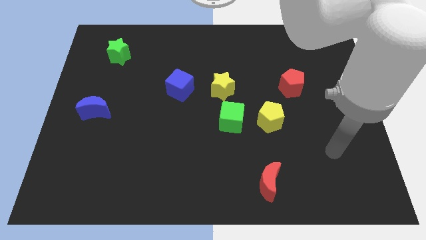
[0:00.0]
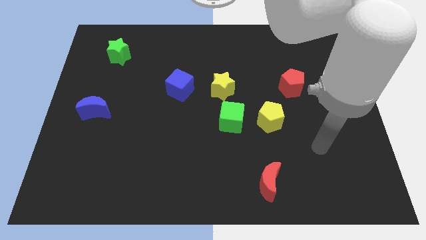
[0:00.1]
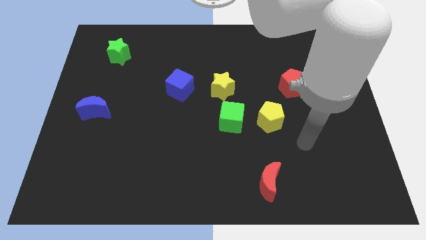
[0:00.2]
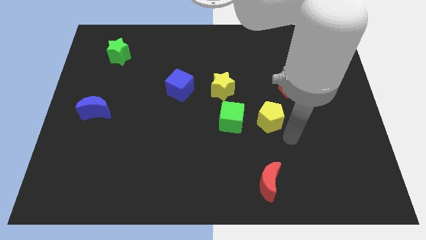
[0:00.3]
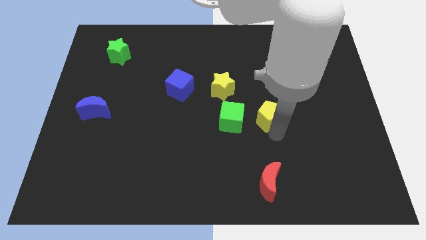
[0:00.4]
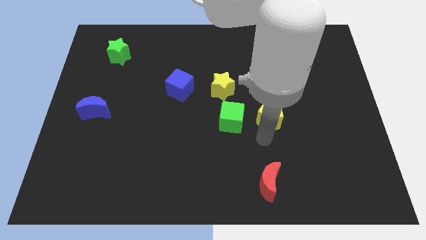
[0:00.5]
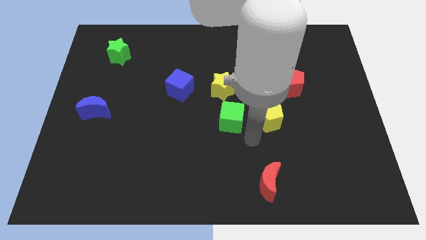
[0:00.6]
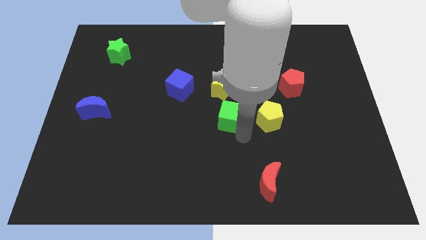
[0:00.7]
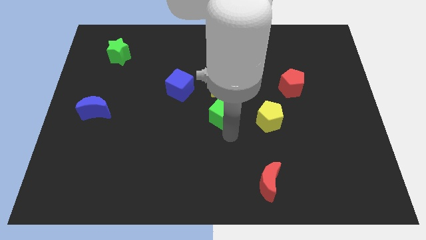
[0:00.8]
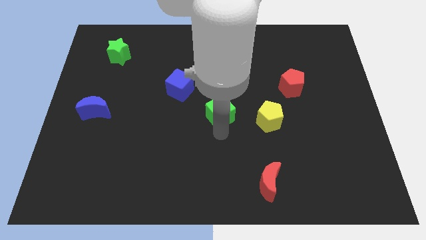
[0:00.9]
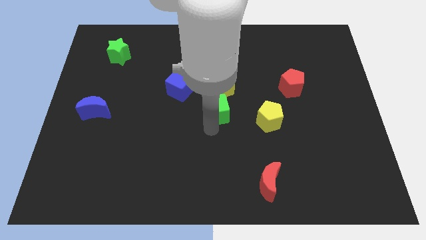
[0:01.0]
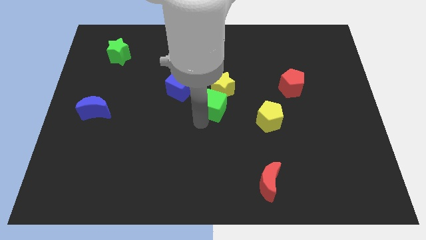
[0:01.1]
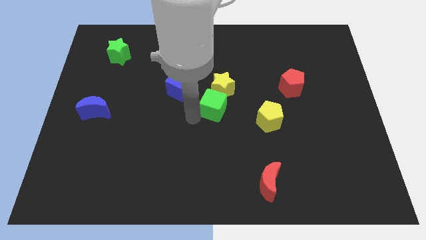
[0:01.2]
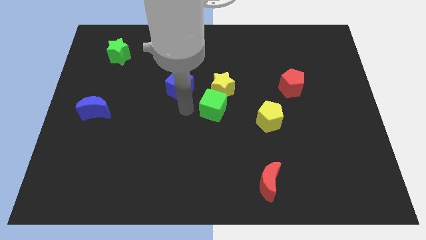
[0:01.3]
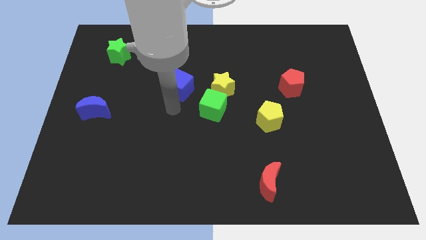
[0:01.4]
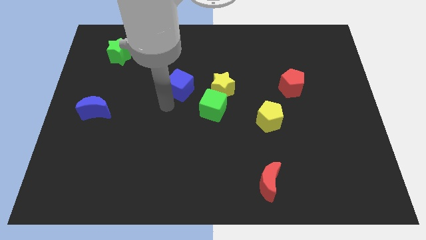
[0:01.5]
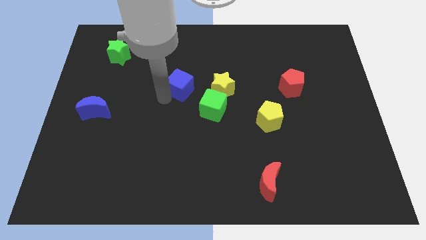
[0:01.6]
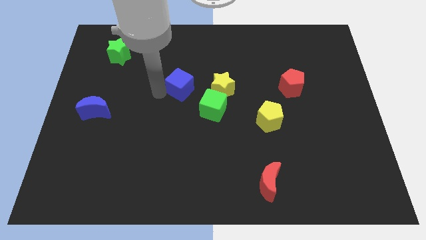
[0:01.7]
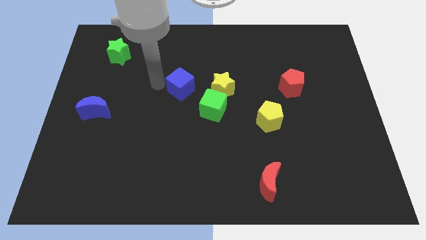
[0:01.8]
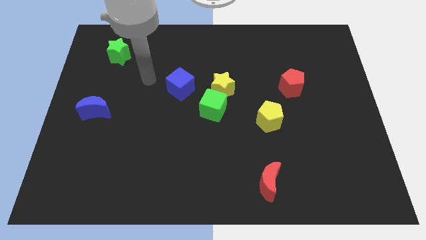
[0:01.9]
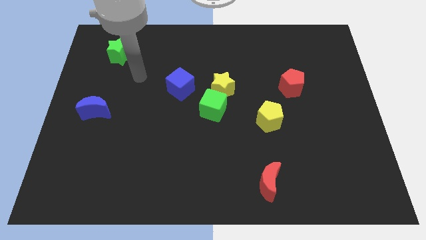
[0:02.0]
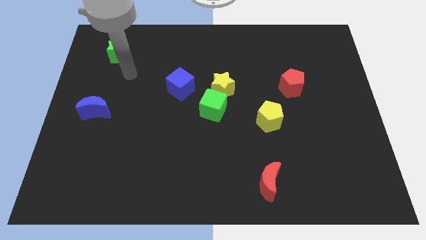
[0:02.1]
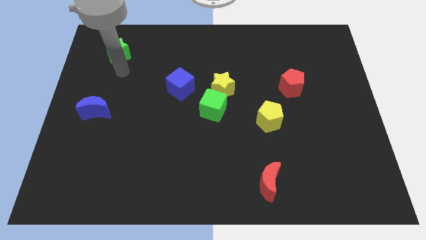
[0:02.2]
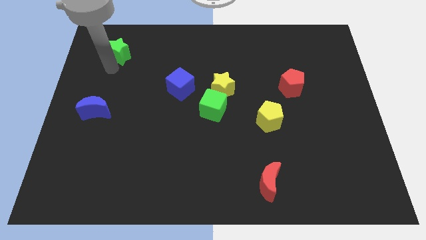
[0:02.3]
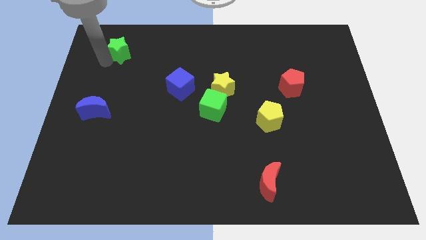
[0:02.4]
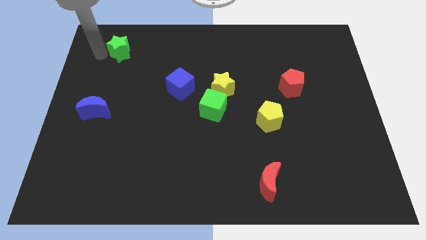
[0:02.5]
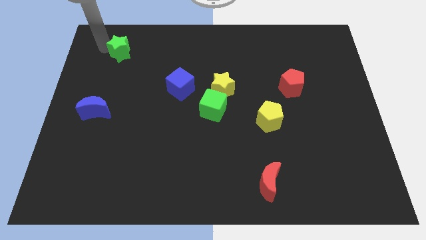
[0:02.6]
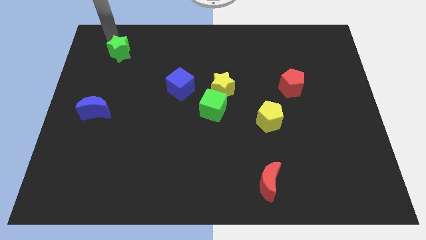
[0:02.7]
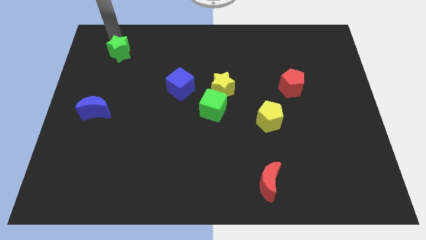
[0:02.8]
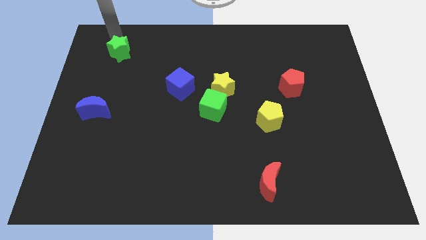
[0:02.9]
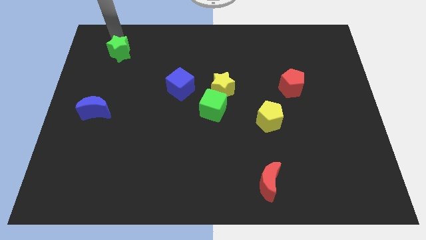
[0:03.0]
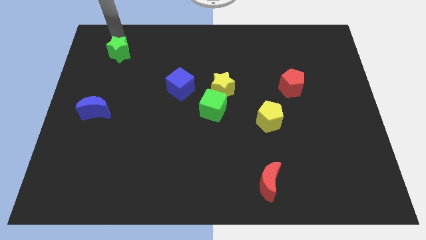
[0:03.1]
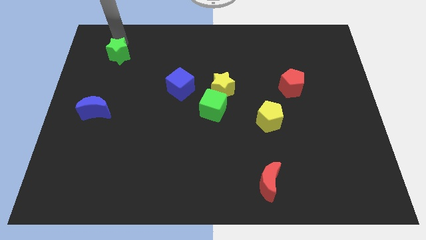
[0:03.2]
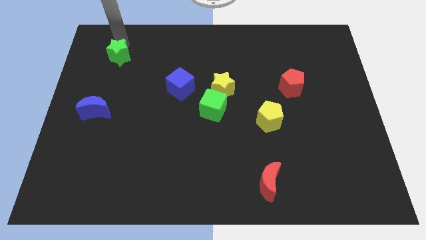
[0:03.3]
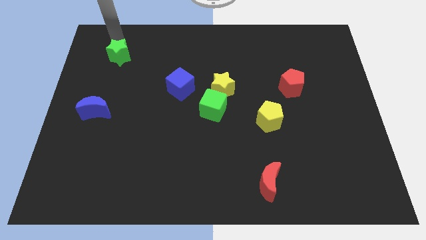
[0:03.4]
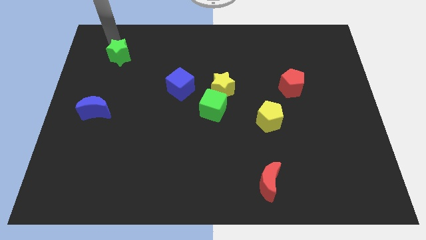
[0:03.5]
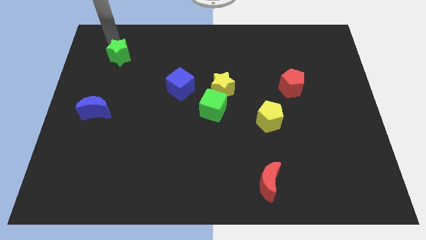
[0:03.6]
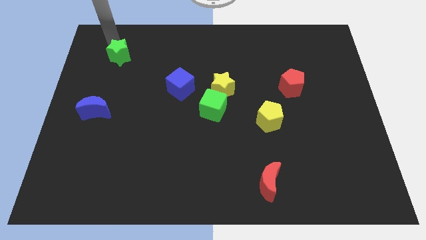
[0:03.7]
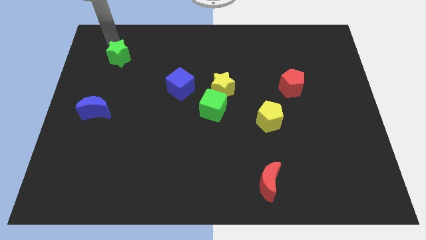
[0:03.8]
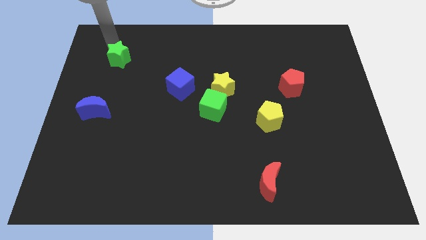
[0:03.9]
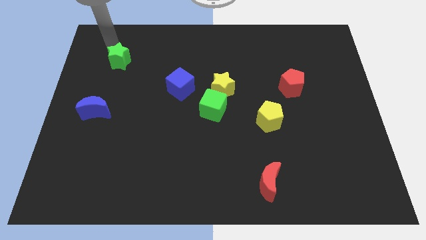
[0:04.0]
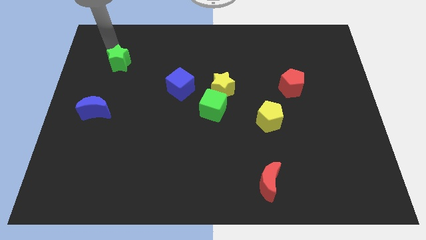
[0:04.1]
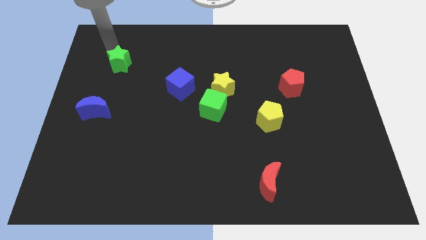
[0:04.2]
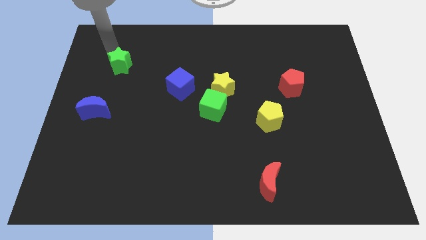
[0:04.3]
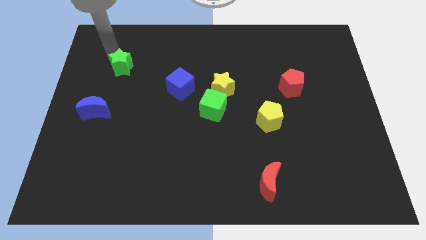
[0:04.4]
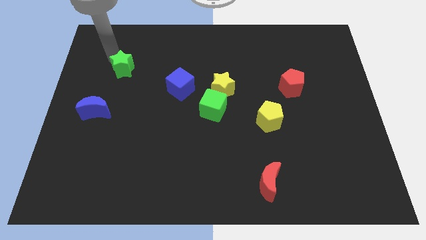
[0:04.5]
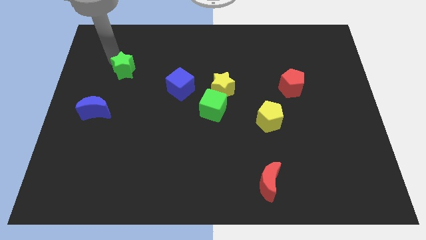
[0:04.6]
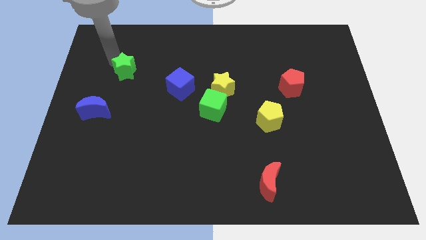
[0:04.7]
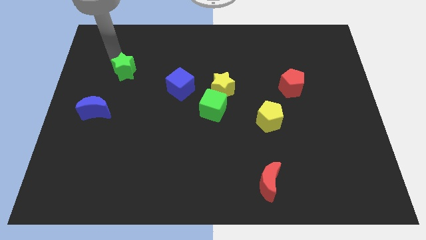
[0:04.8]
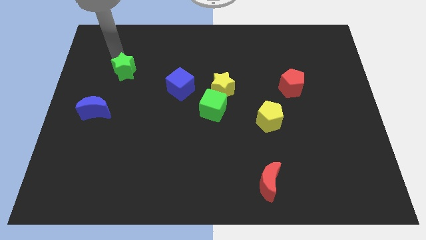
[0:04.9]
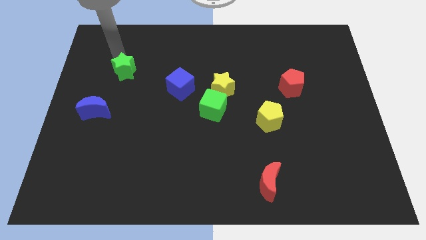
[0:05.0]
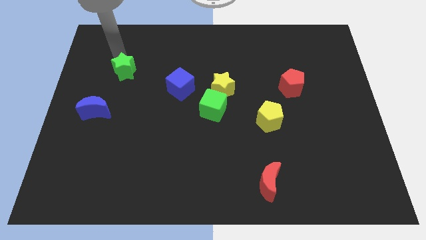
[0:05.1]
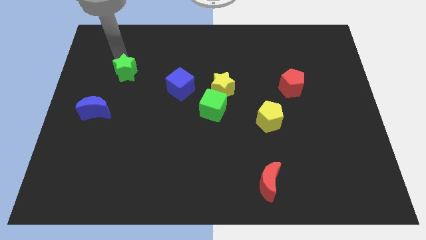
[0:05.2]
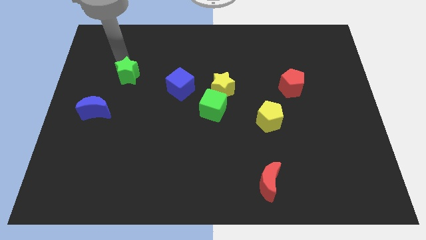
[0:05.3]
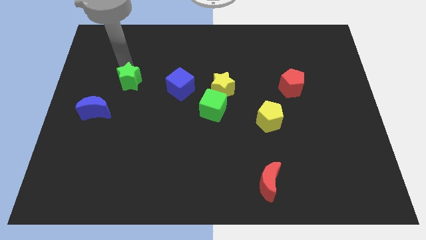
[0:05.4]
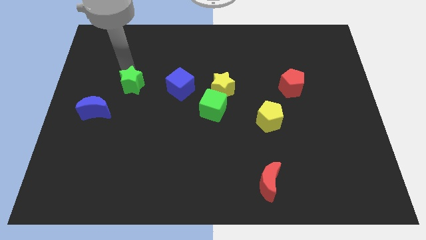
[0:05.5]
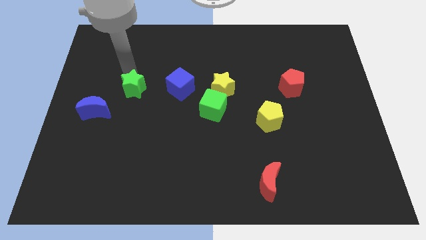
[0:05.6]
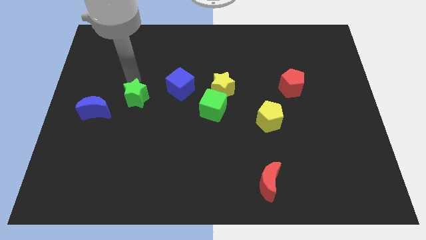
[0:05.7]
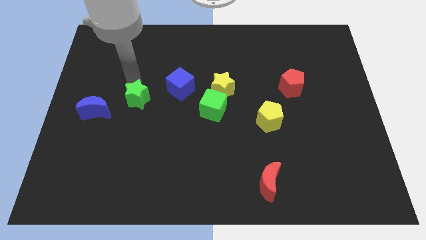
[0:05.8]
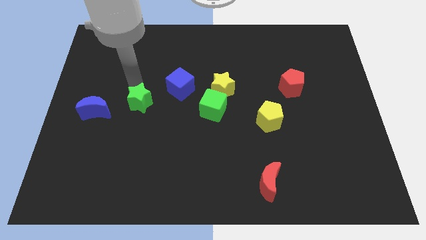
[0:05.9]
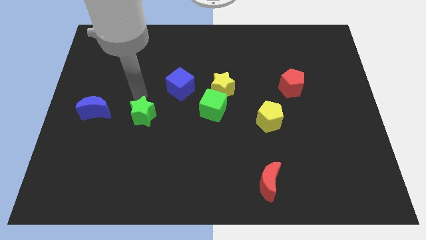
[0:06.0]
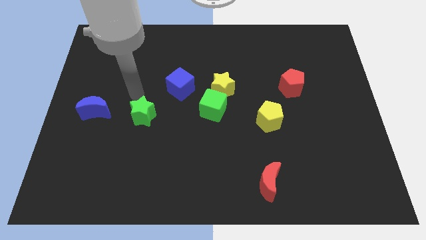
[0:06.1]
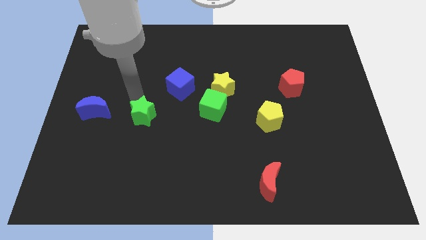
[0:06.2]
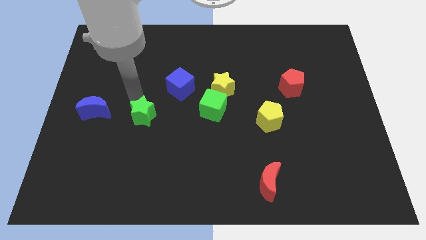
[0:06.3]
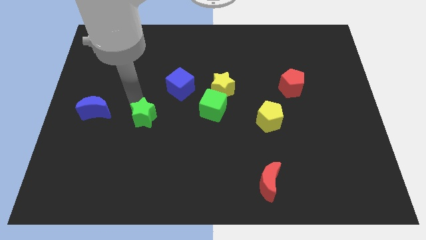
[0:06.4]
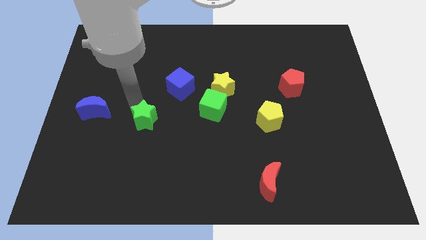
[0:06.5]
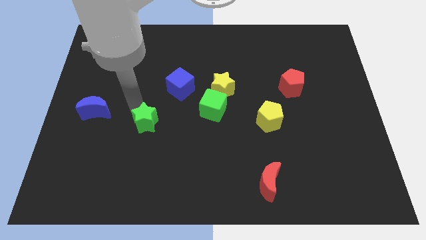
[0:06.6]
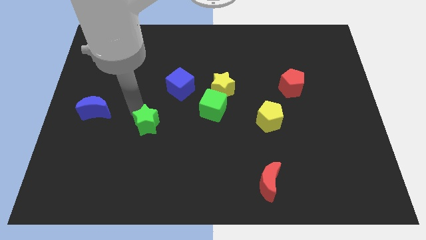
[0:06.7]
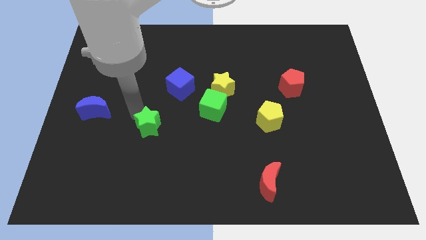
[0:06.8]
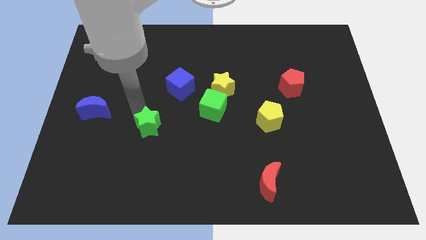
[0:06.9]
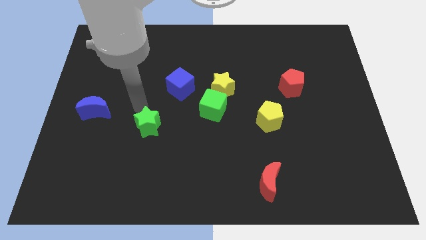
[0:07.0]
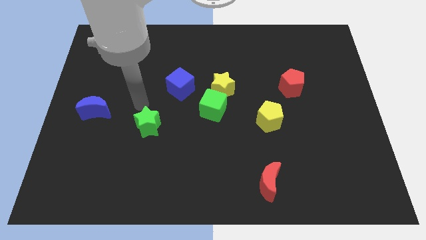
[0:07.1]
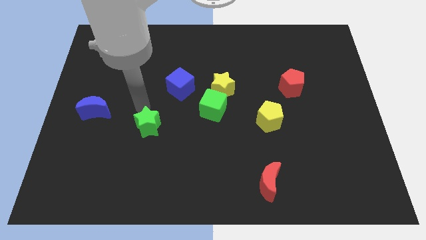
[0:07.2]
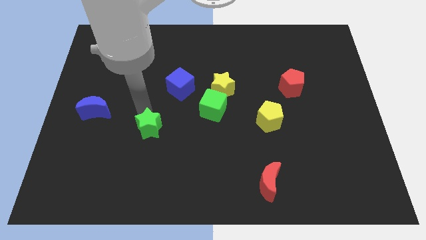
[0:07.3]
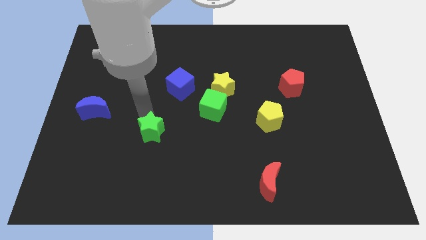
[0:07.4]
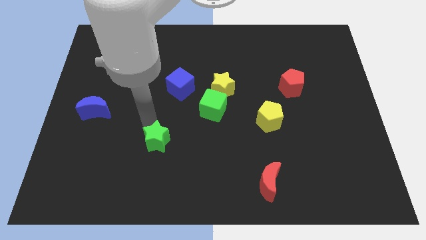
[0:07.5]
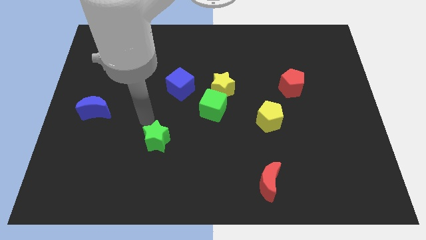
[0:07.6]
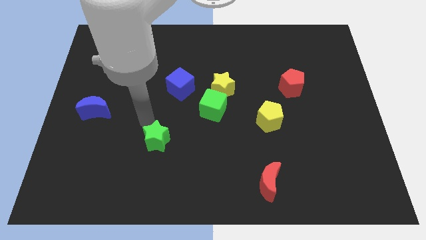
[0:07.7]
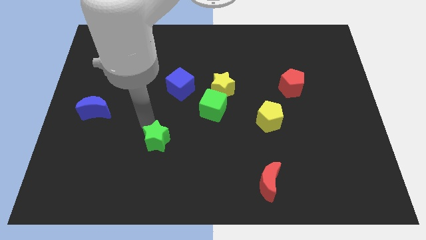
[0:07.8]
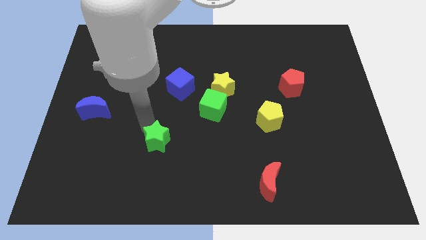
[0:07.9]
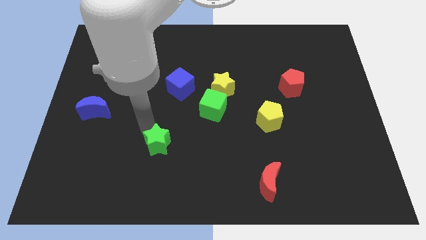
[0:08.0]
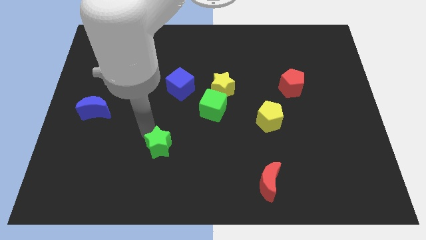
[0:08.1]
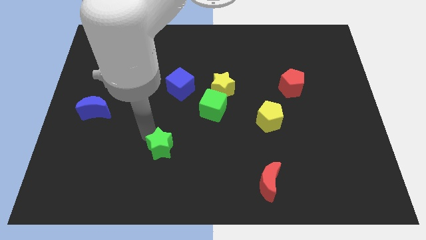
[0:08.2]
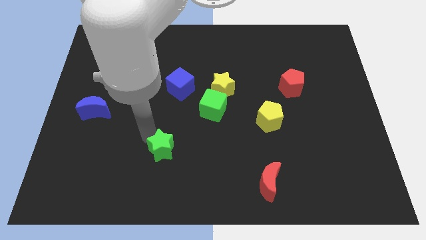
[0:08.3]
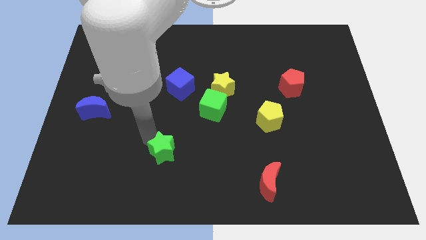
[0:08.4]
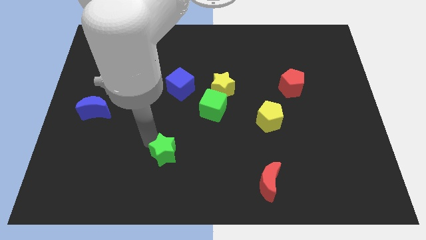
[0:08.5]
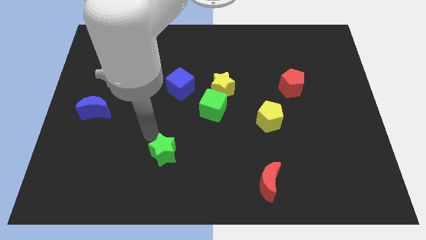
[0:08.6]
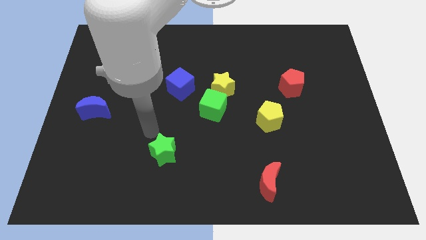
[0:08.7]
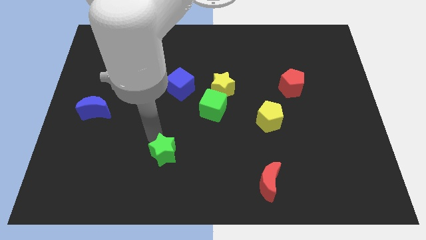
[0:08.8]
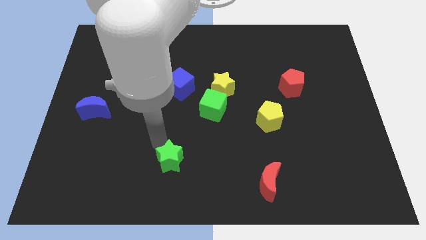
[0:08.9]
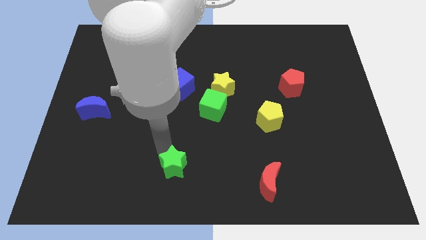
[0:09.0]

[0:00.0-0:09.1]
move the green star to the bottom side
